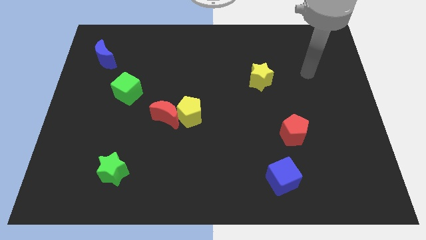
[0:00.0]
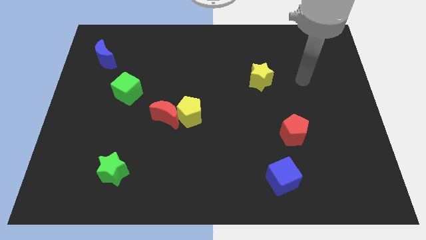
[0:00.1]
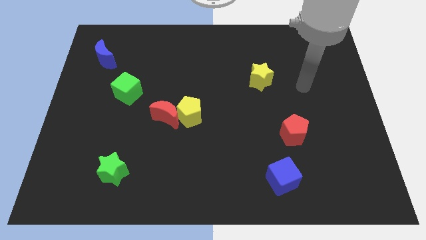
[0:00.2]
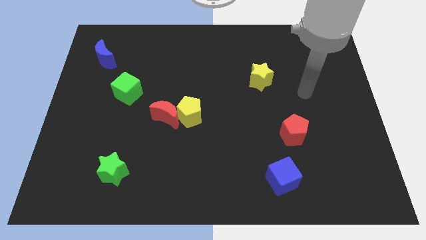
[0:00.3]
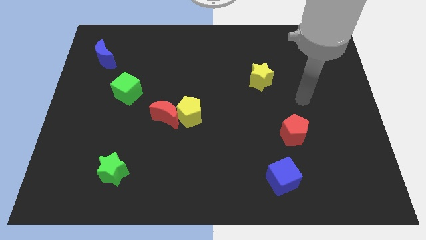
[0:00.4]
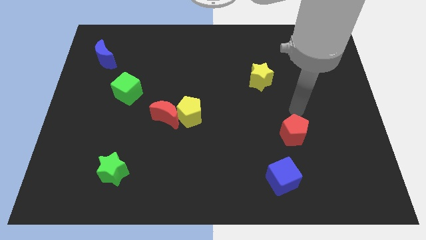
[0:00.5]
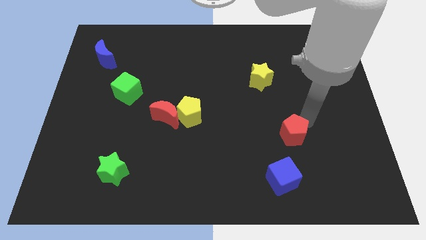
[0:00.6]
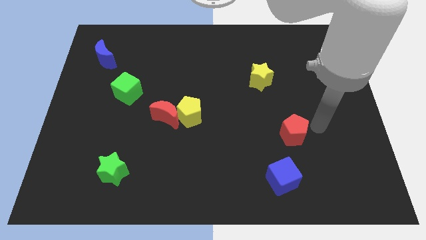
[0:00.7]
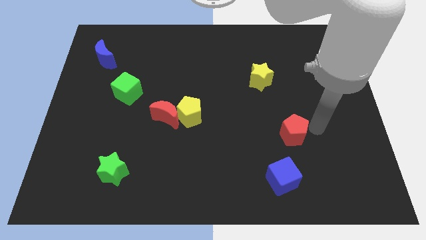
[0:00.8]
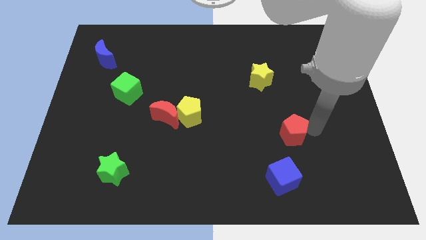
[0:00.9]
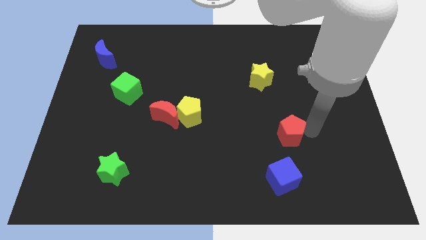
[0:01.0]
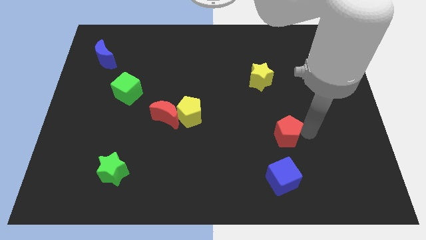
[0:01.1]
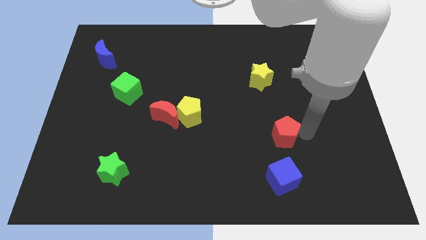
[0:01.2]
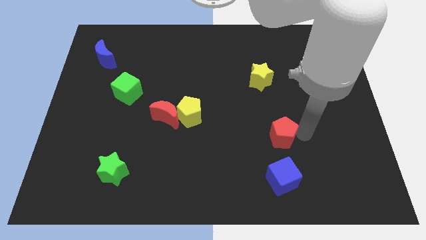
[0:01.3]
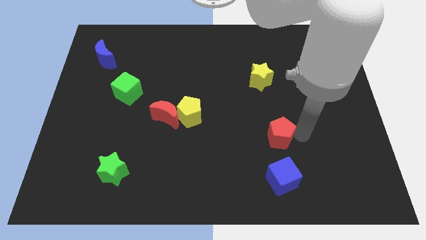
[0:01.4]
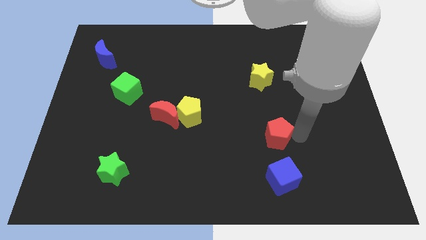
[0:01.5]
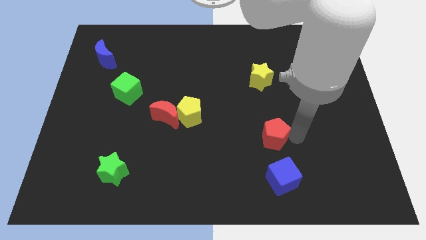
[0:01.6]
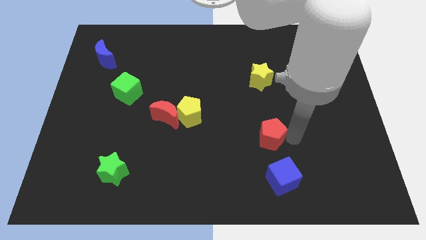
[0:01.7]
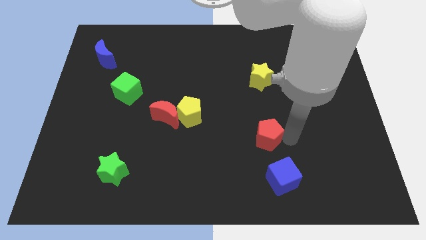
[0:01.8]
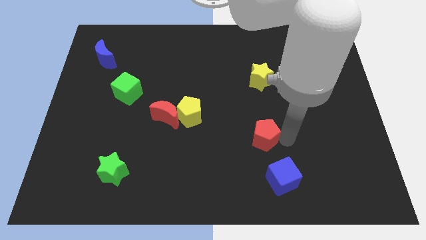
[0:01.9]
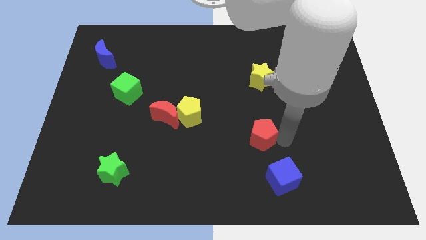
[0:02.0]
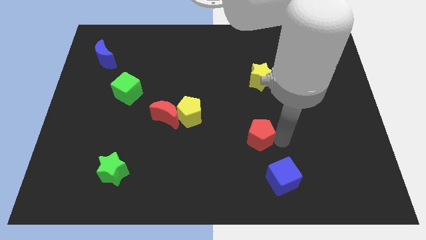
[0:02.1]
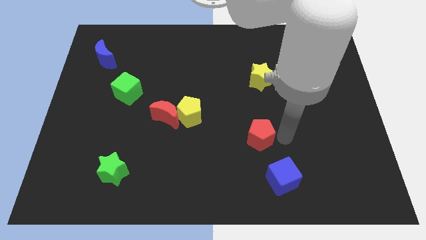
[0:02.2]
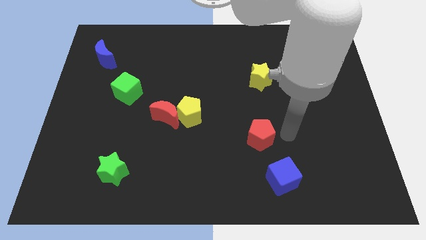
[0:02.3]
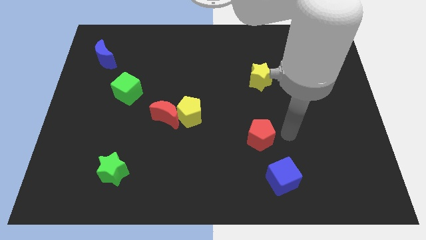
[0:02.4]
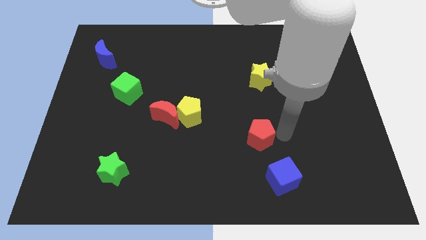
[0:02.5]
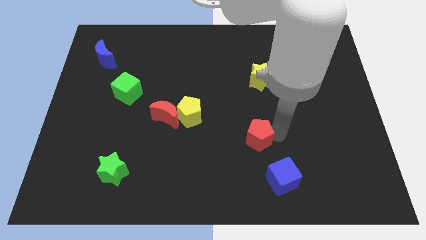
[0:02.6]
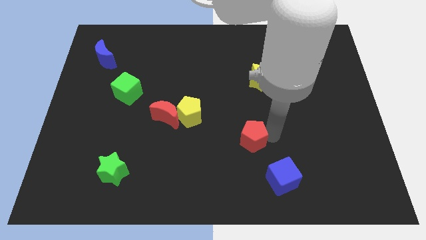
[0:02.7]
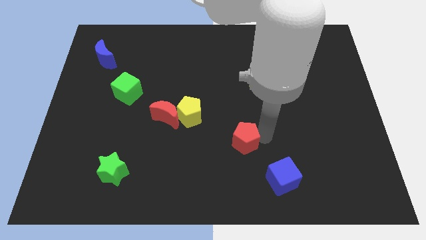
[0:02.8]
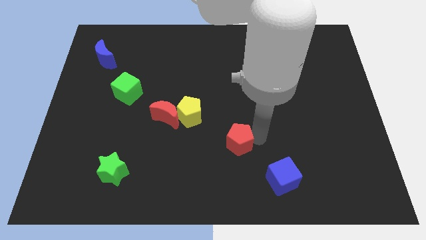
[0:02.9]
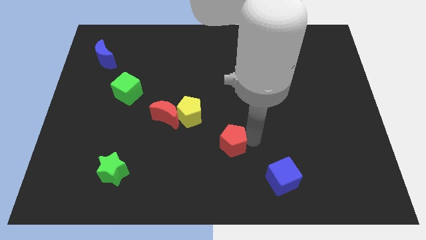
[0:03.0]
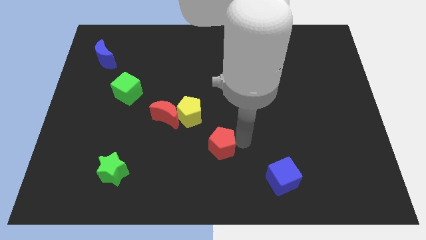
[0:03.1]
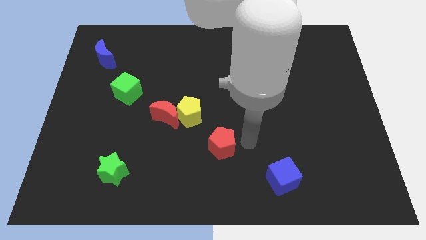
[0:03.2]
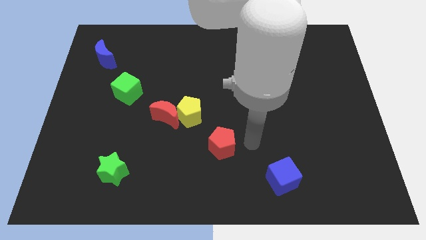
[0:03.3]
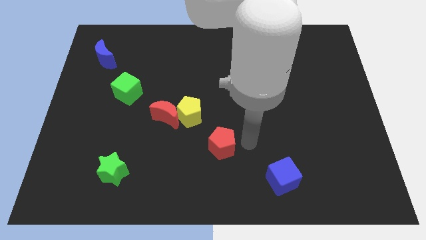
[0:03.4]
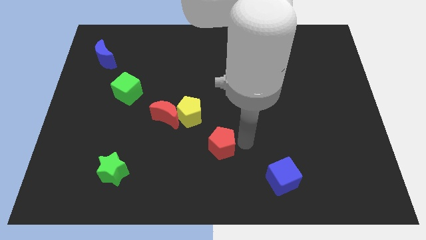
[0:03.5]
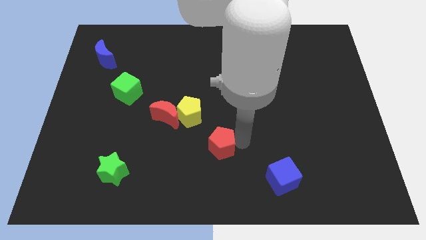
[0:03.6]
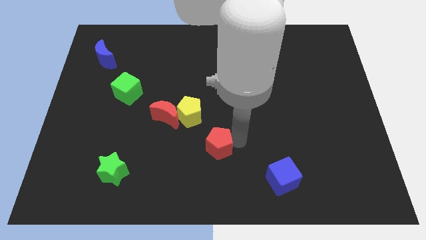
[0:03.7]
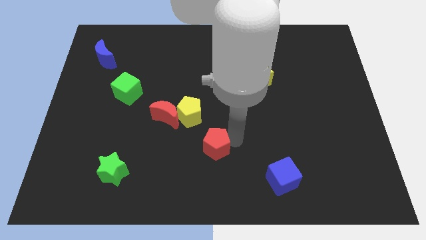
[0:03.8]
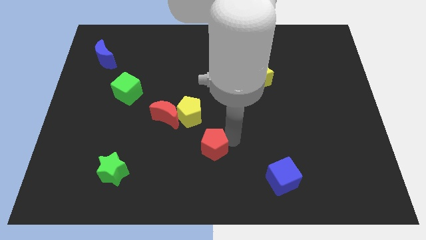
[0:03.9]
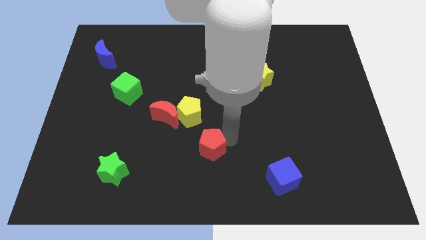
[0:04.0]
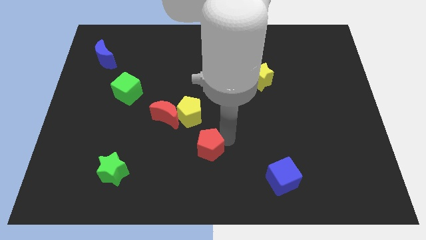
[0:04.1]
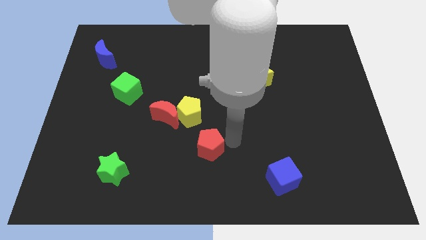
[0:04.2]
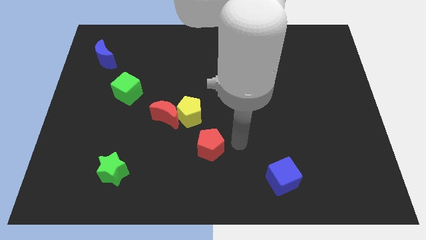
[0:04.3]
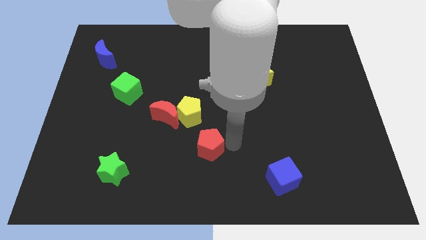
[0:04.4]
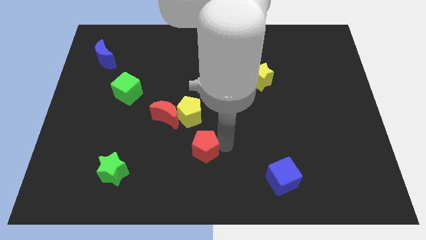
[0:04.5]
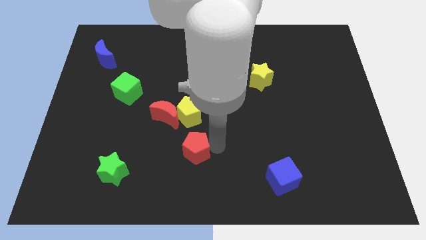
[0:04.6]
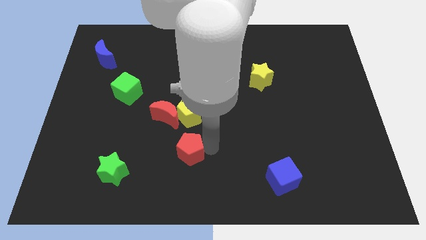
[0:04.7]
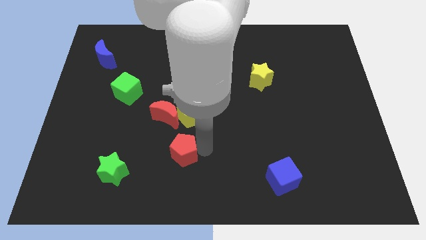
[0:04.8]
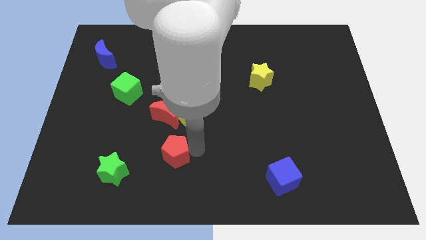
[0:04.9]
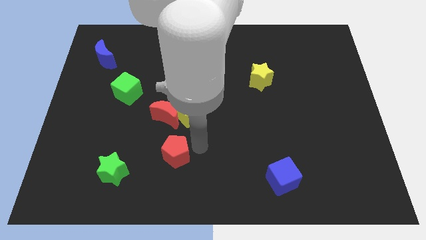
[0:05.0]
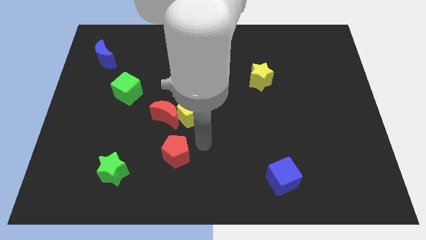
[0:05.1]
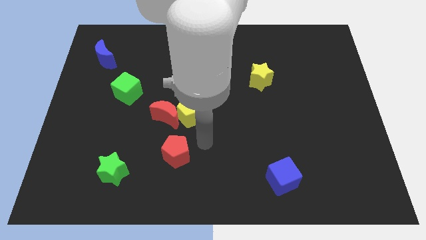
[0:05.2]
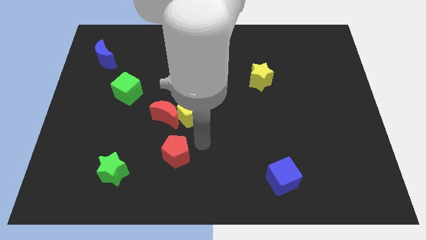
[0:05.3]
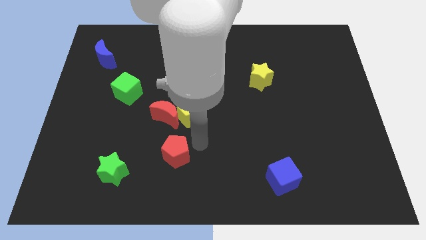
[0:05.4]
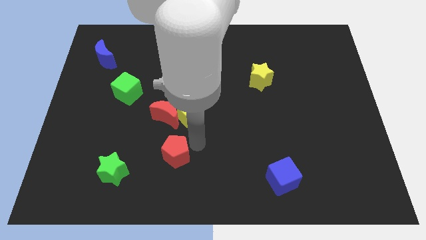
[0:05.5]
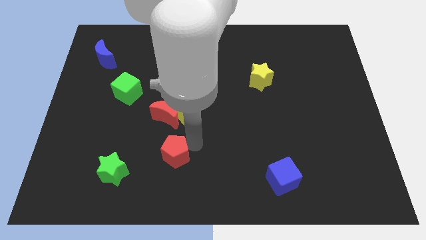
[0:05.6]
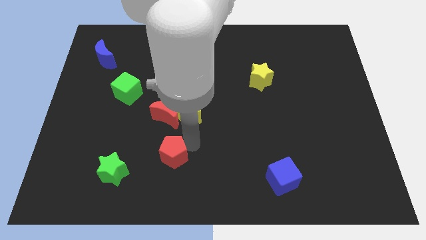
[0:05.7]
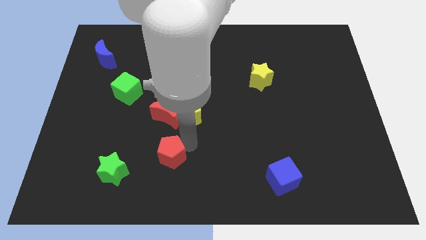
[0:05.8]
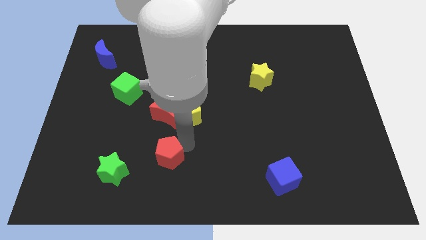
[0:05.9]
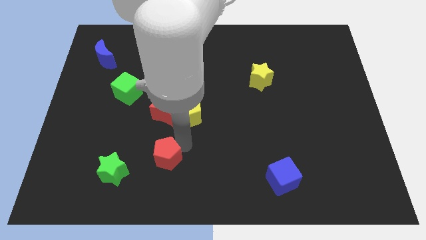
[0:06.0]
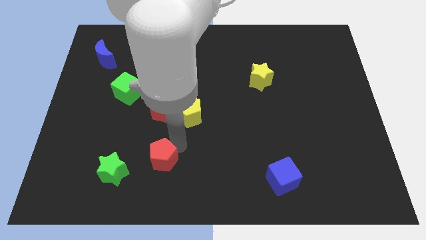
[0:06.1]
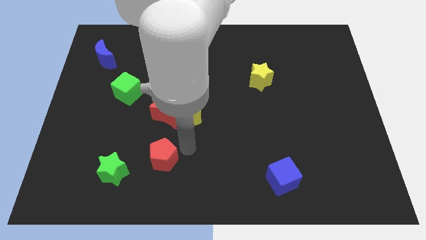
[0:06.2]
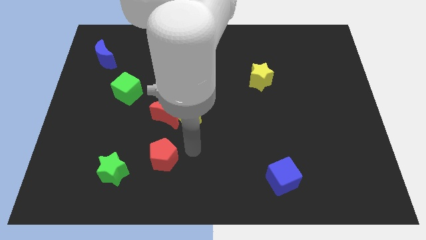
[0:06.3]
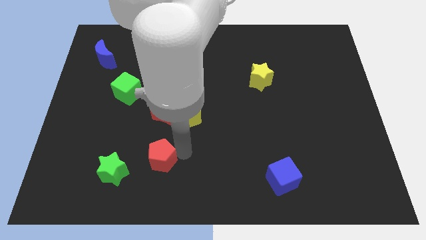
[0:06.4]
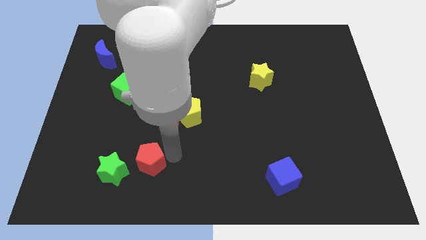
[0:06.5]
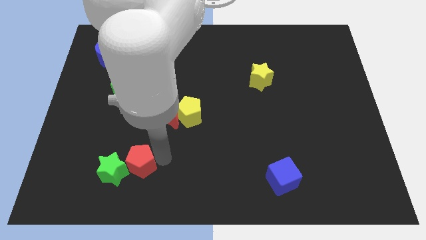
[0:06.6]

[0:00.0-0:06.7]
put the red pentagon close to the green star

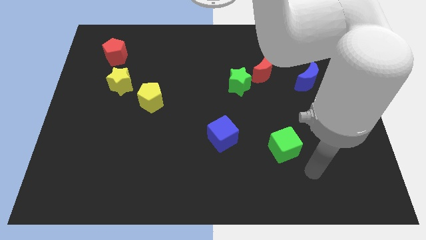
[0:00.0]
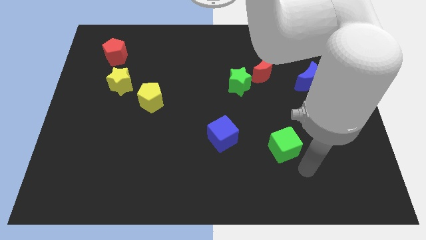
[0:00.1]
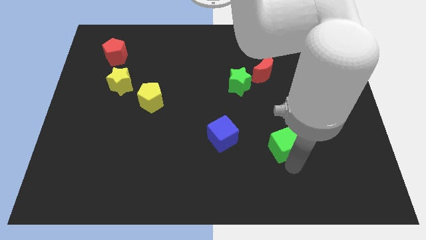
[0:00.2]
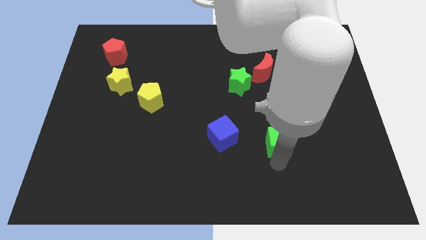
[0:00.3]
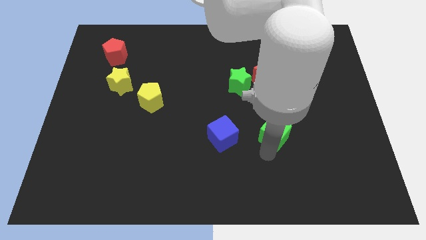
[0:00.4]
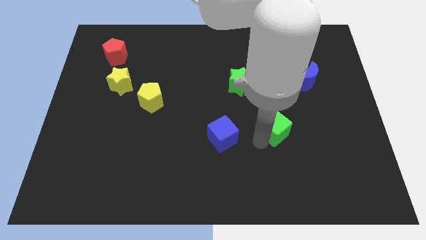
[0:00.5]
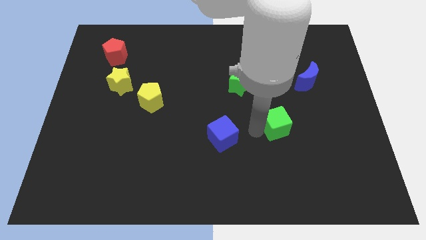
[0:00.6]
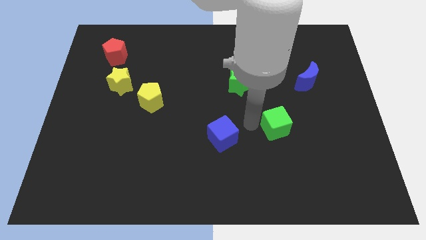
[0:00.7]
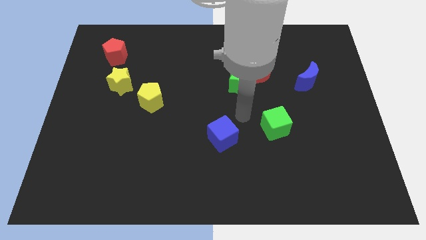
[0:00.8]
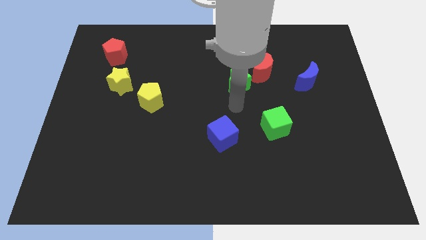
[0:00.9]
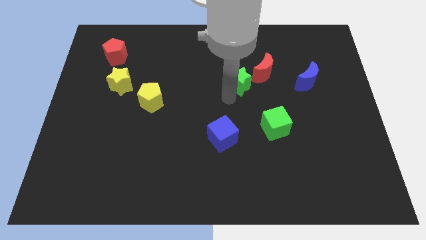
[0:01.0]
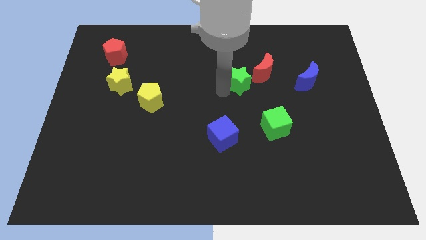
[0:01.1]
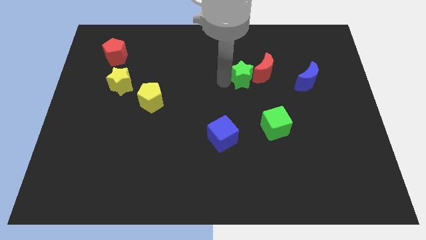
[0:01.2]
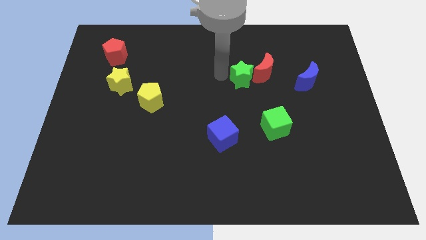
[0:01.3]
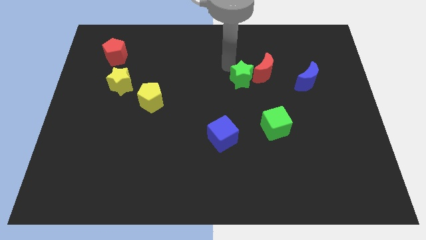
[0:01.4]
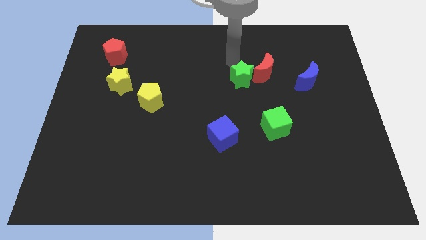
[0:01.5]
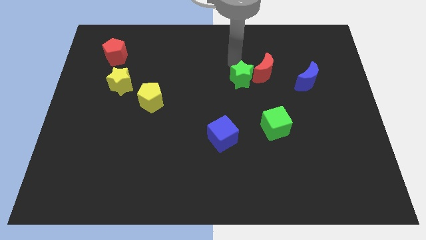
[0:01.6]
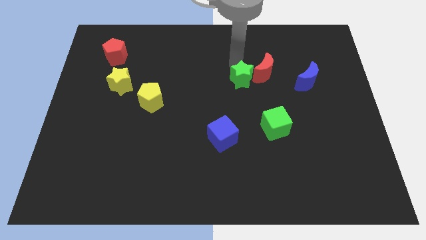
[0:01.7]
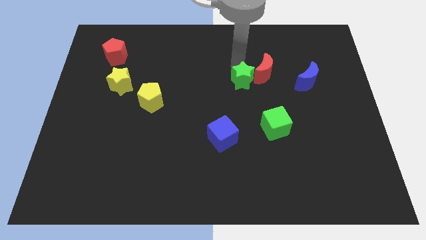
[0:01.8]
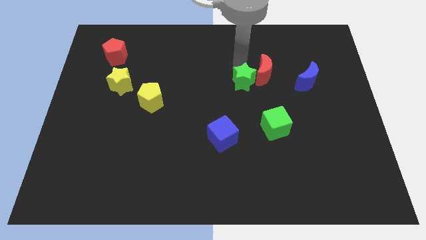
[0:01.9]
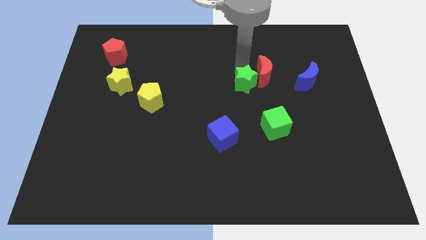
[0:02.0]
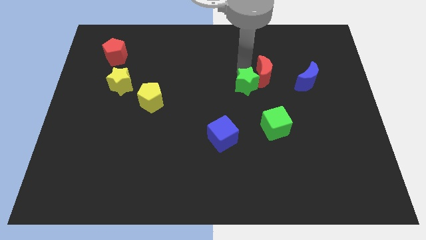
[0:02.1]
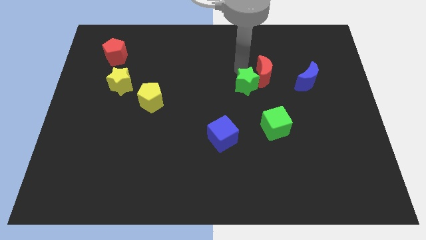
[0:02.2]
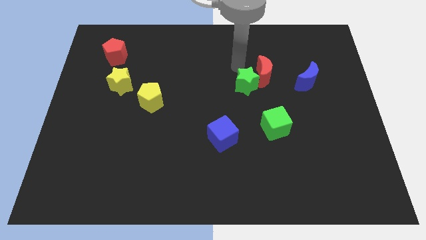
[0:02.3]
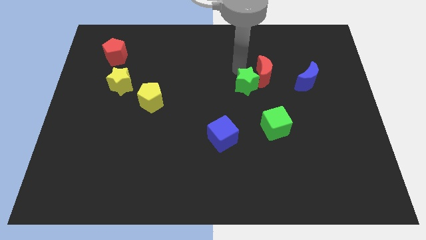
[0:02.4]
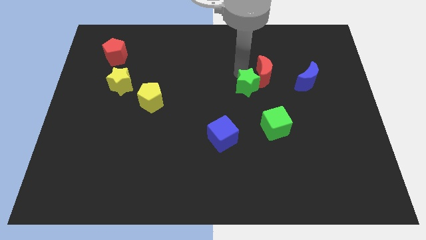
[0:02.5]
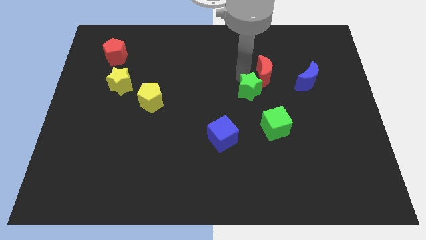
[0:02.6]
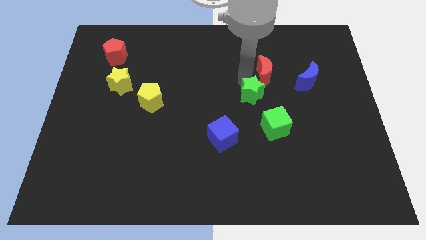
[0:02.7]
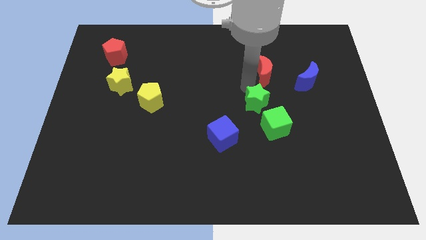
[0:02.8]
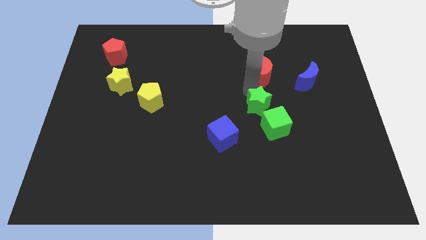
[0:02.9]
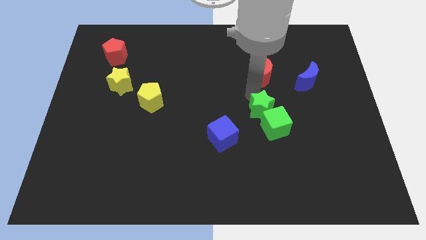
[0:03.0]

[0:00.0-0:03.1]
move the green star towards the green cube
